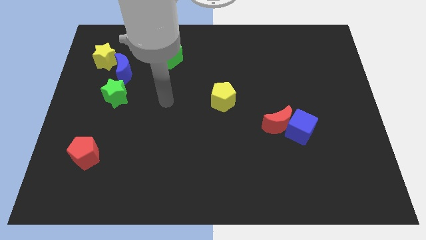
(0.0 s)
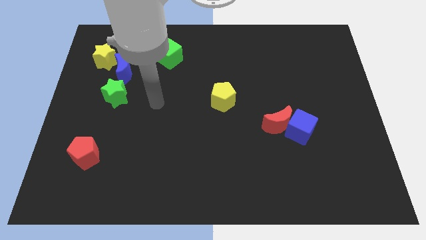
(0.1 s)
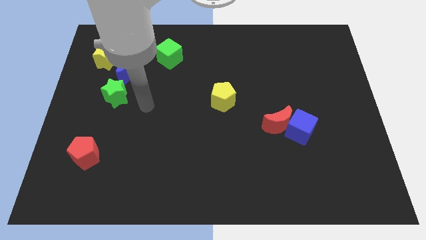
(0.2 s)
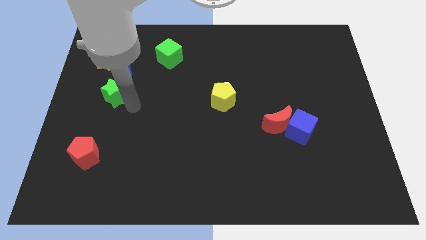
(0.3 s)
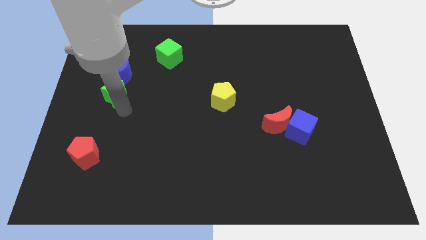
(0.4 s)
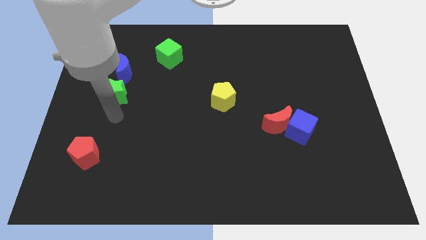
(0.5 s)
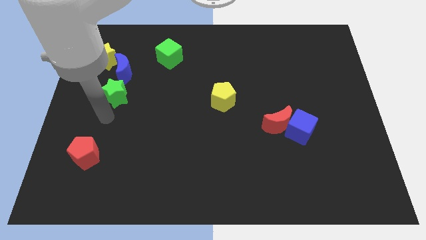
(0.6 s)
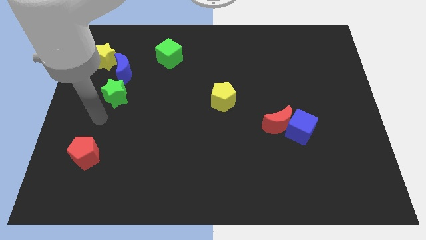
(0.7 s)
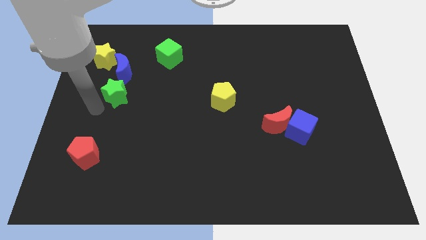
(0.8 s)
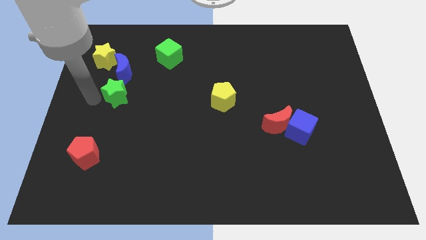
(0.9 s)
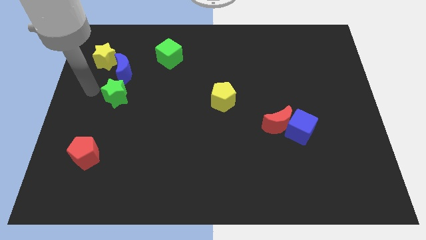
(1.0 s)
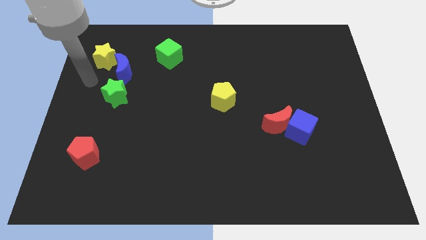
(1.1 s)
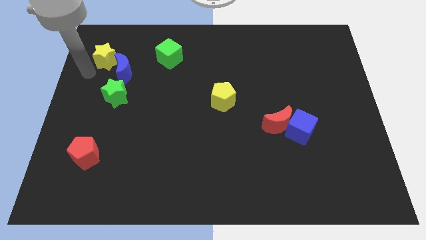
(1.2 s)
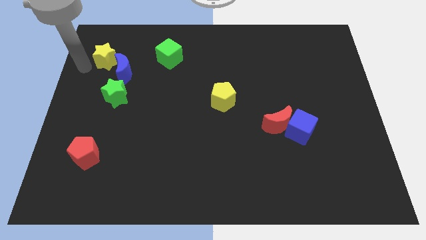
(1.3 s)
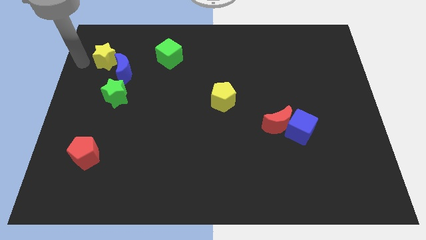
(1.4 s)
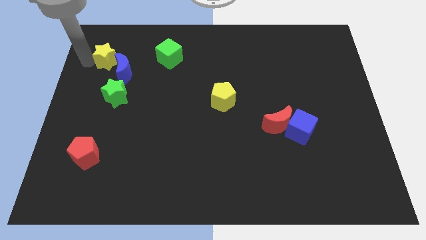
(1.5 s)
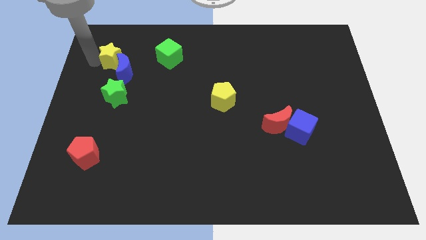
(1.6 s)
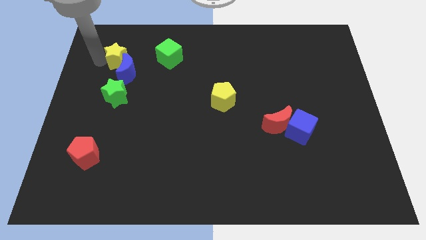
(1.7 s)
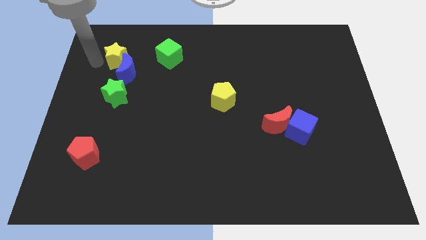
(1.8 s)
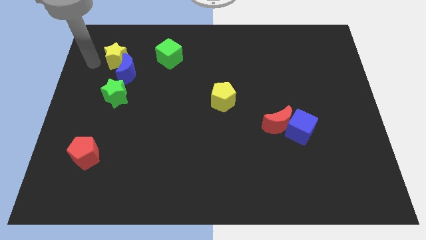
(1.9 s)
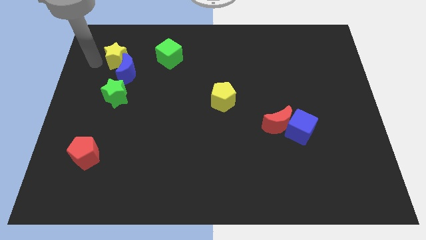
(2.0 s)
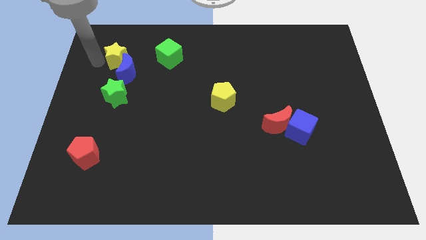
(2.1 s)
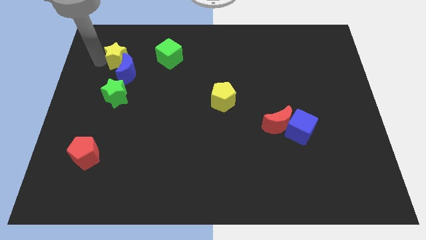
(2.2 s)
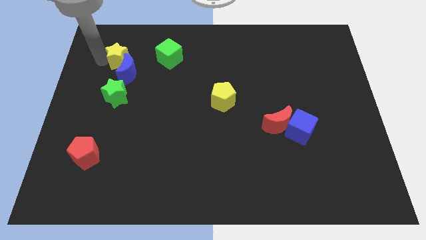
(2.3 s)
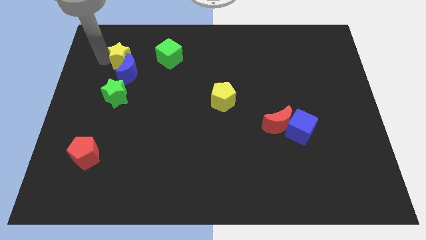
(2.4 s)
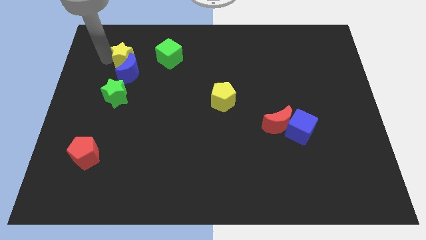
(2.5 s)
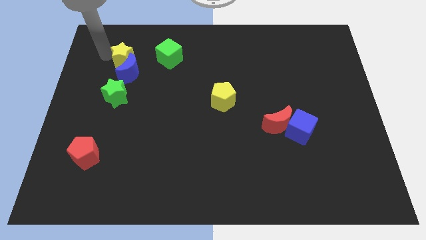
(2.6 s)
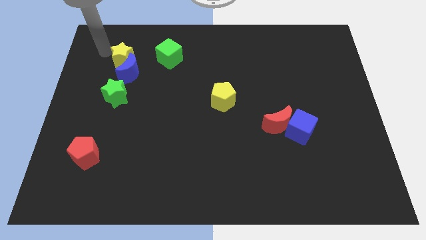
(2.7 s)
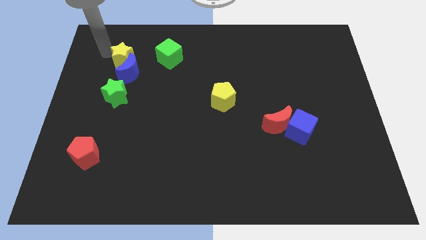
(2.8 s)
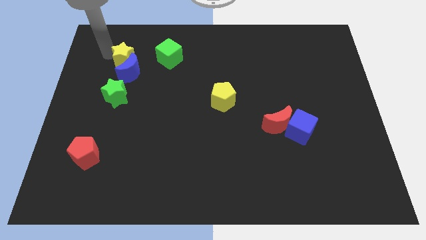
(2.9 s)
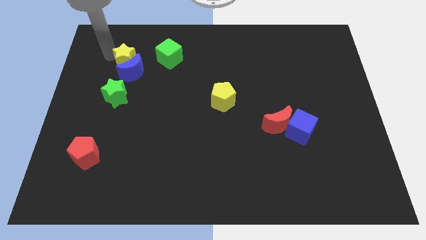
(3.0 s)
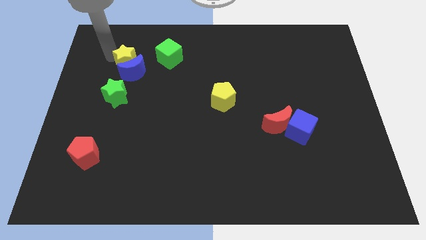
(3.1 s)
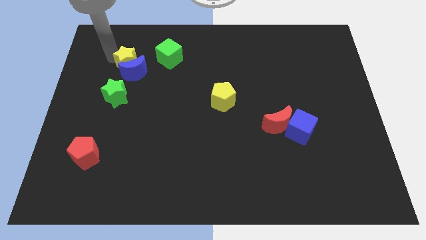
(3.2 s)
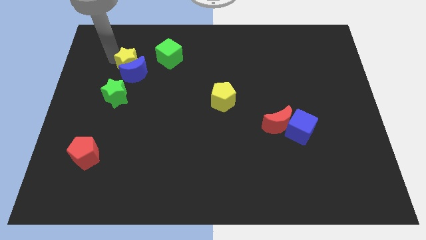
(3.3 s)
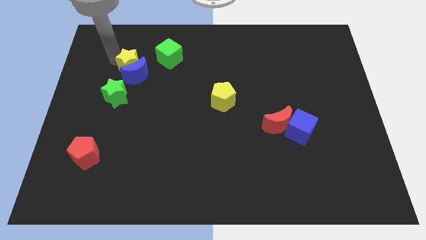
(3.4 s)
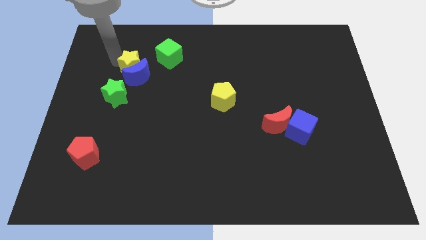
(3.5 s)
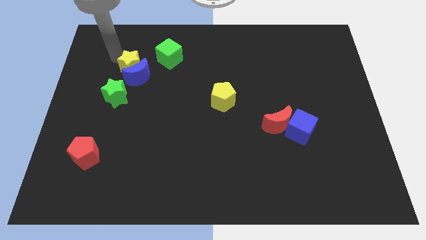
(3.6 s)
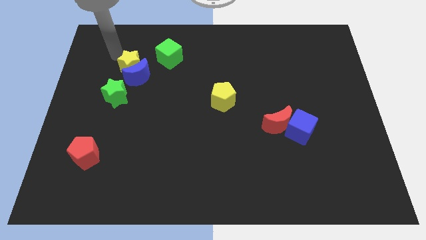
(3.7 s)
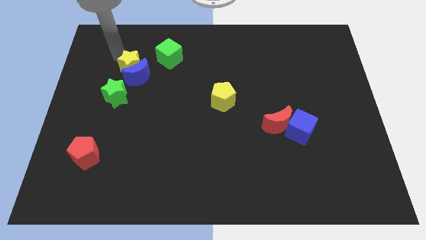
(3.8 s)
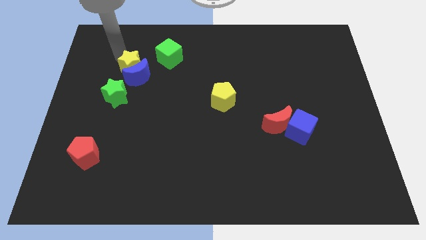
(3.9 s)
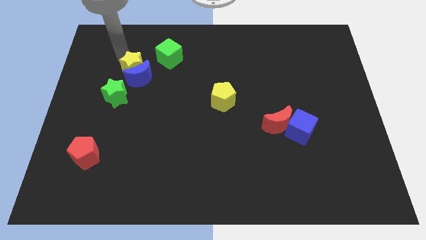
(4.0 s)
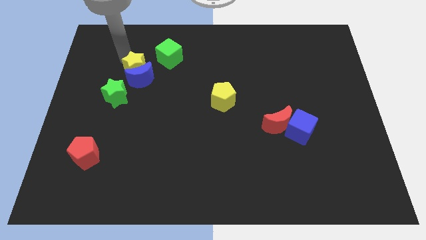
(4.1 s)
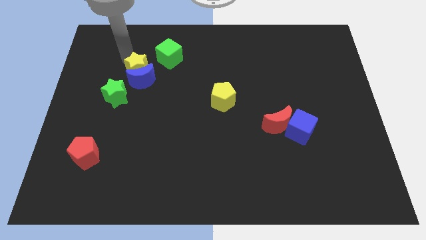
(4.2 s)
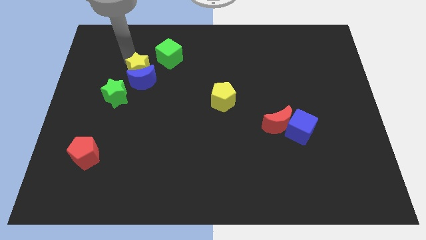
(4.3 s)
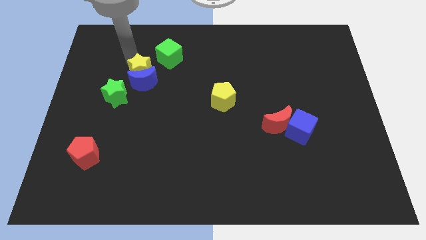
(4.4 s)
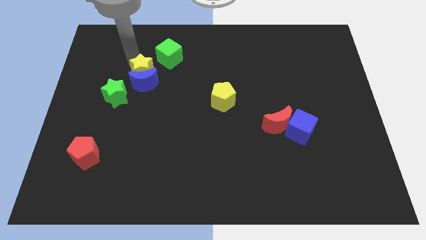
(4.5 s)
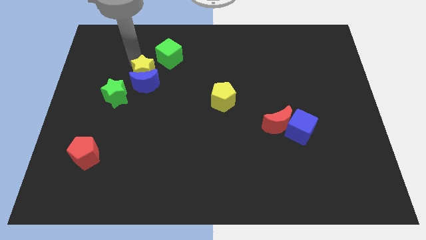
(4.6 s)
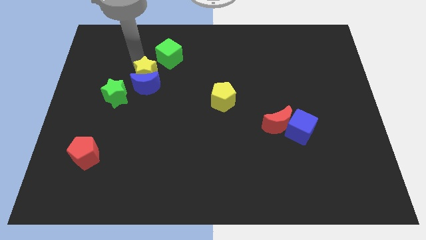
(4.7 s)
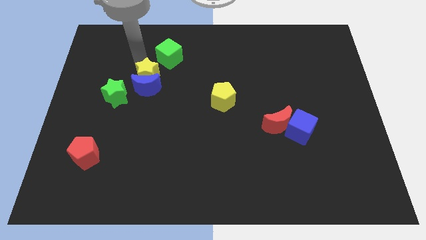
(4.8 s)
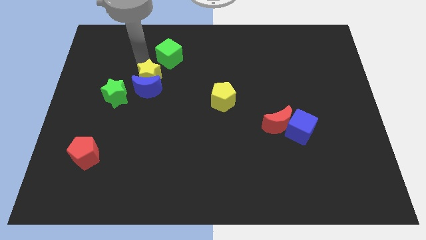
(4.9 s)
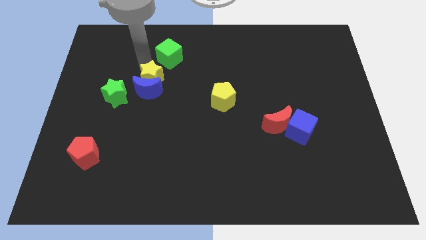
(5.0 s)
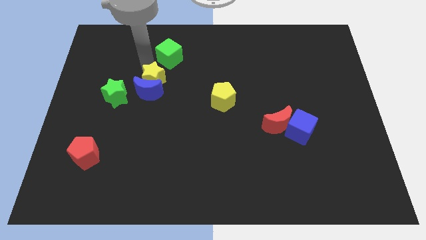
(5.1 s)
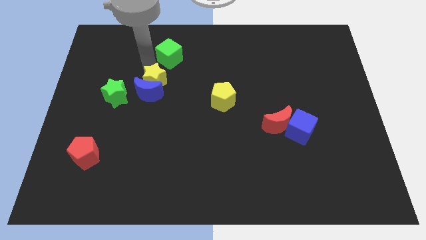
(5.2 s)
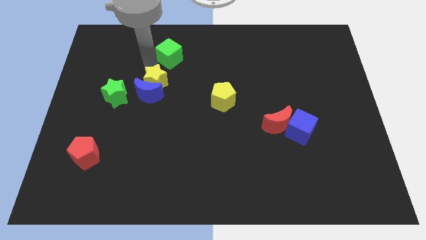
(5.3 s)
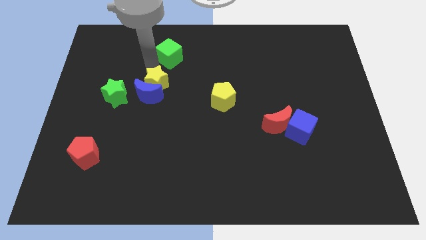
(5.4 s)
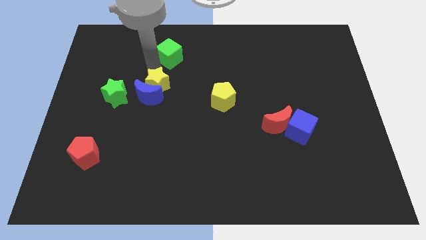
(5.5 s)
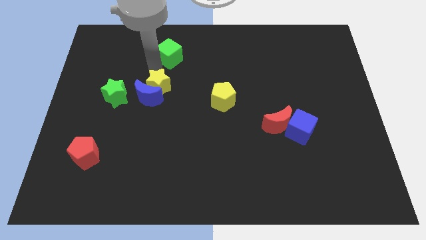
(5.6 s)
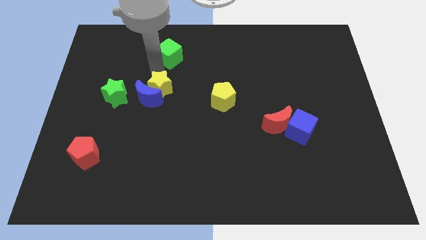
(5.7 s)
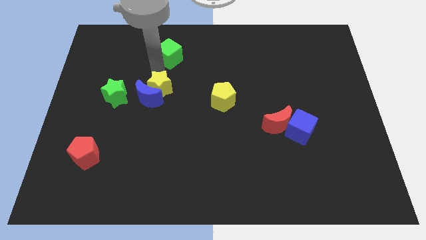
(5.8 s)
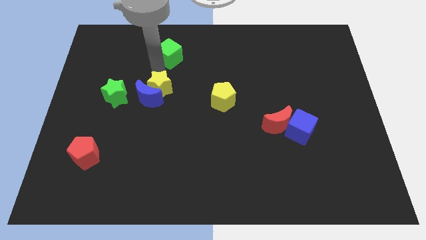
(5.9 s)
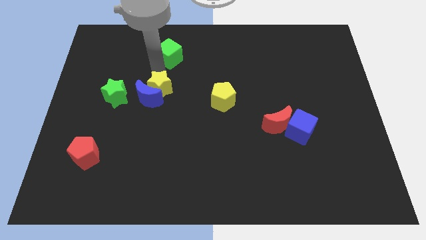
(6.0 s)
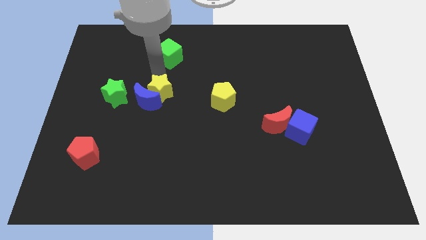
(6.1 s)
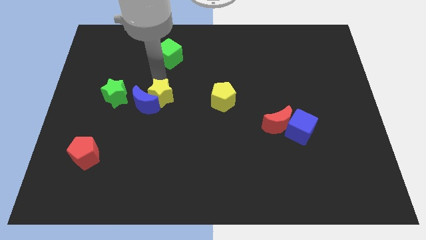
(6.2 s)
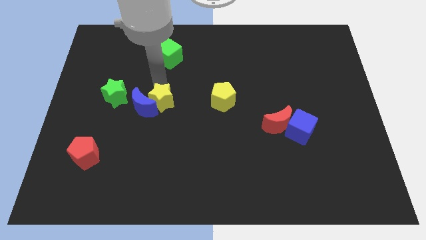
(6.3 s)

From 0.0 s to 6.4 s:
move the yellow star down and then right

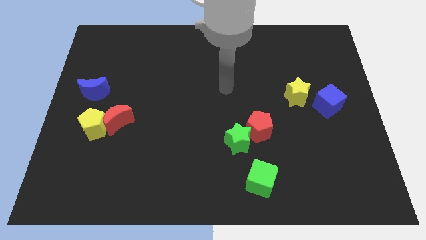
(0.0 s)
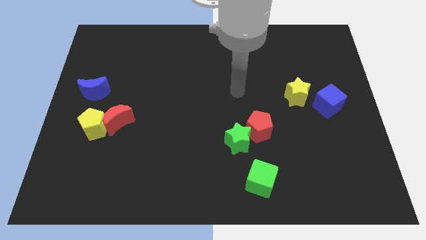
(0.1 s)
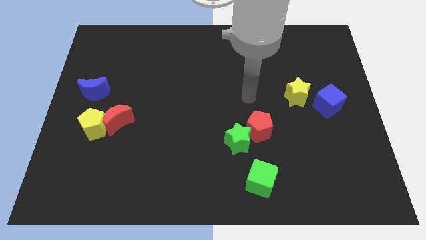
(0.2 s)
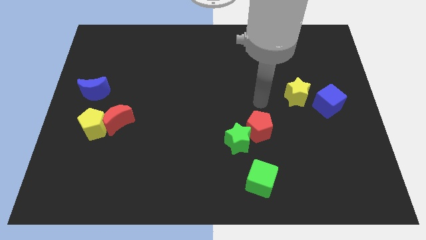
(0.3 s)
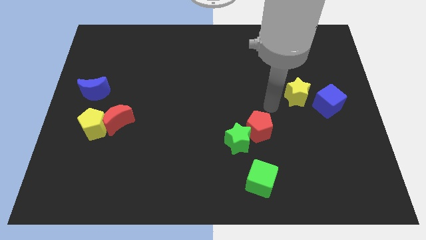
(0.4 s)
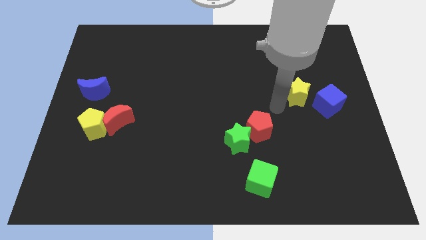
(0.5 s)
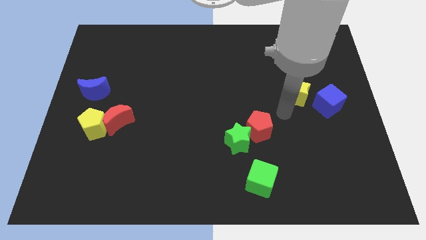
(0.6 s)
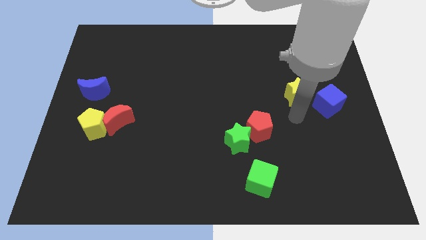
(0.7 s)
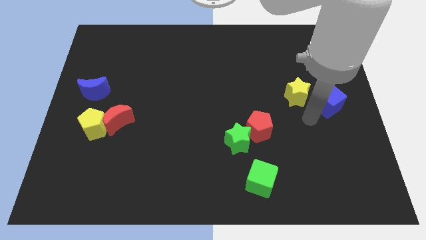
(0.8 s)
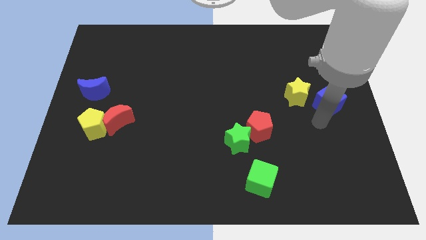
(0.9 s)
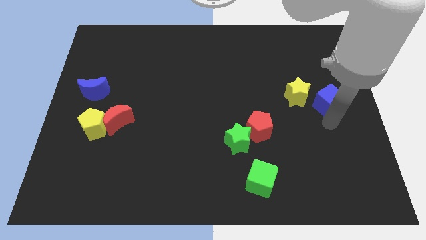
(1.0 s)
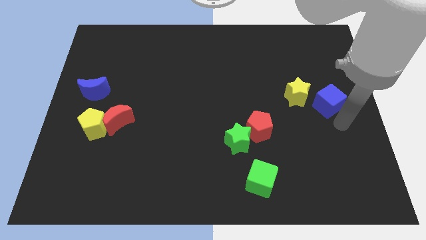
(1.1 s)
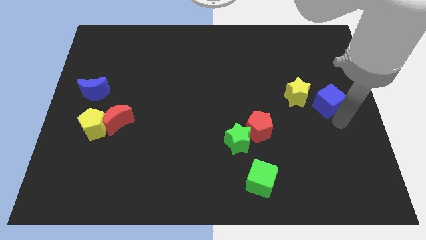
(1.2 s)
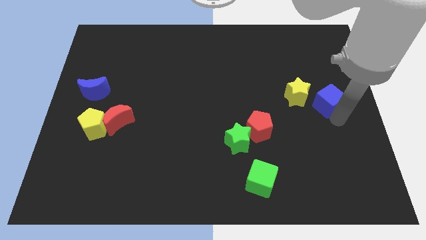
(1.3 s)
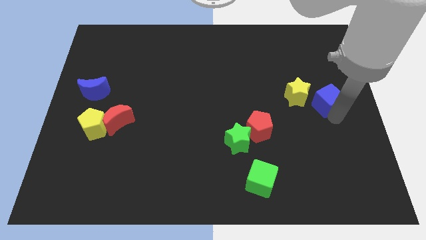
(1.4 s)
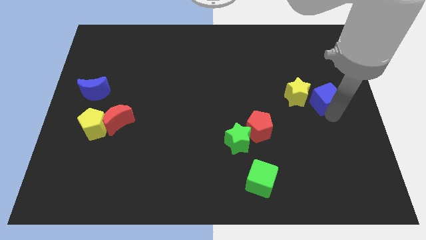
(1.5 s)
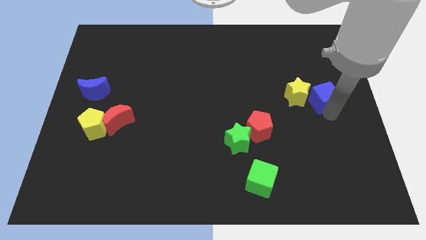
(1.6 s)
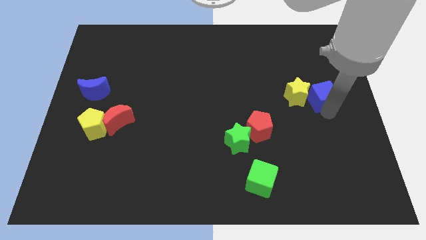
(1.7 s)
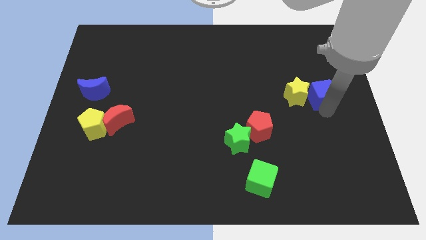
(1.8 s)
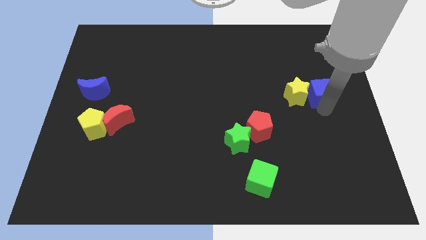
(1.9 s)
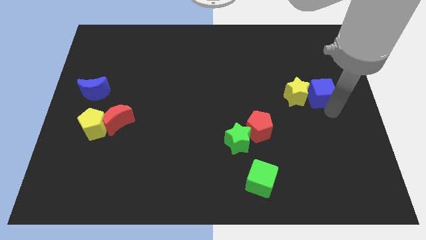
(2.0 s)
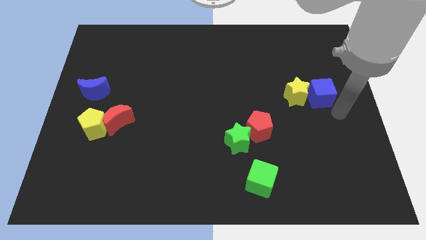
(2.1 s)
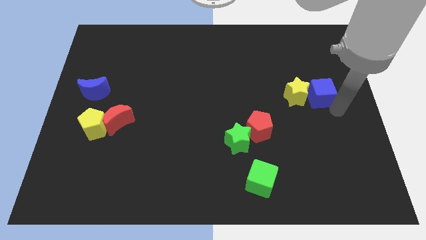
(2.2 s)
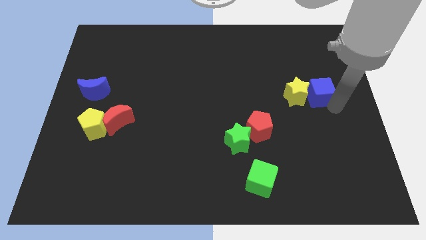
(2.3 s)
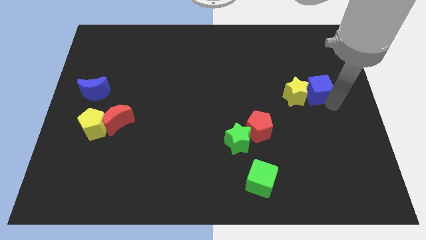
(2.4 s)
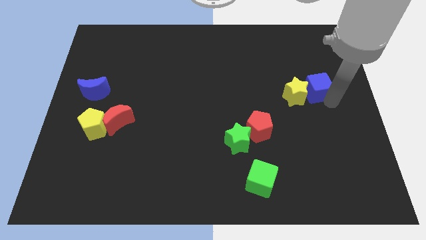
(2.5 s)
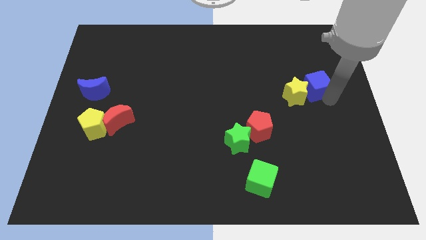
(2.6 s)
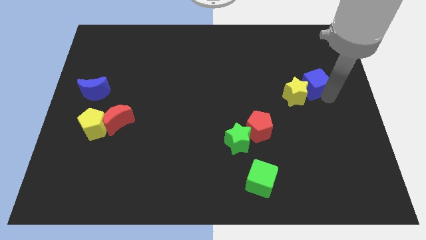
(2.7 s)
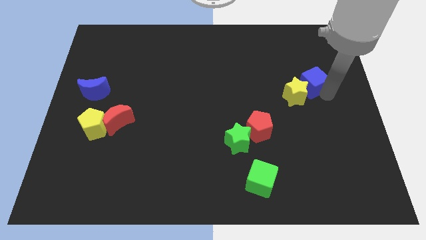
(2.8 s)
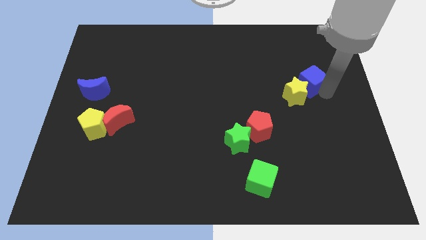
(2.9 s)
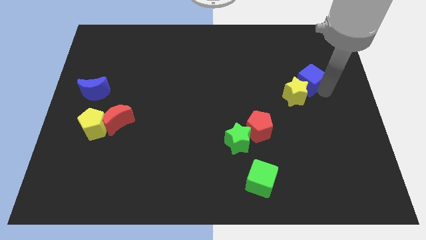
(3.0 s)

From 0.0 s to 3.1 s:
slightly push the blue cube upwards and then to the left
